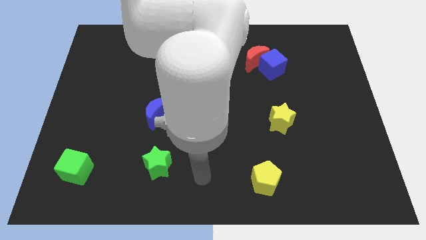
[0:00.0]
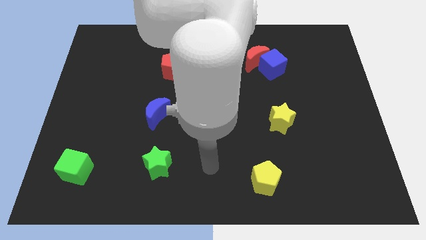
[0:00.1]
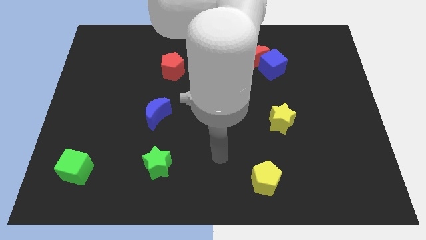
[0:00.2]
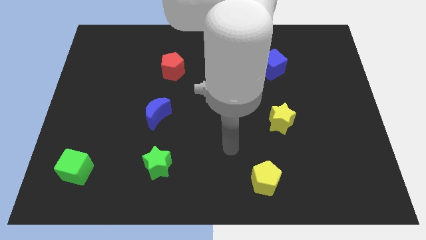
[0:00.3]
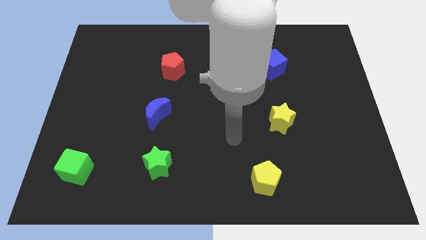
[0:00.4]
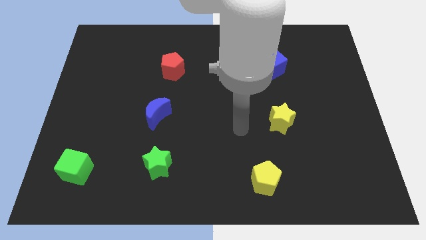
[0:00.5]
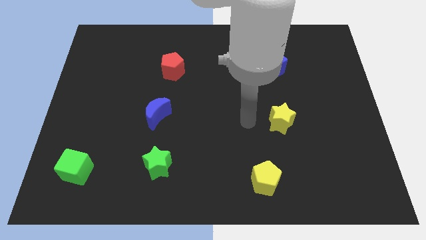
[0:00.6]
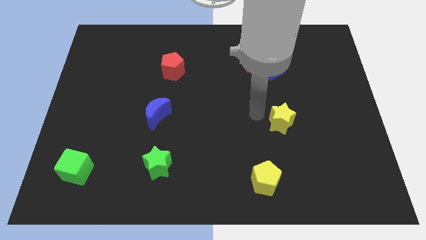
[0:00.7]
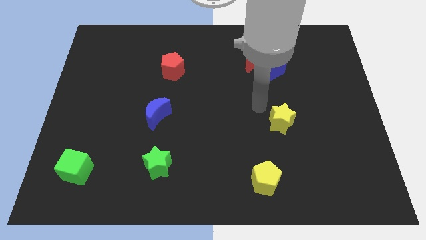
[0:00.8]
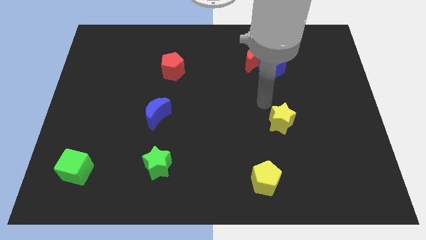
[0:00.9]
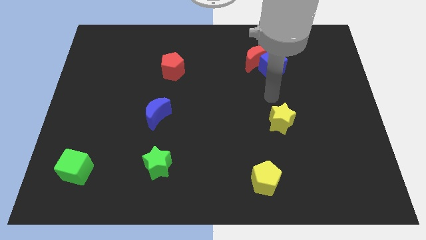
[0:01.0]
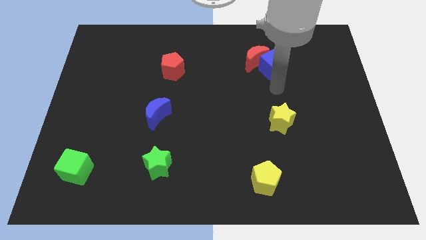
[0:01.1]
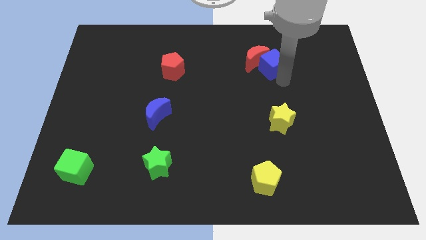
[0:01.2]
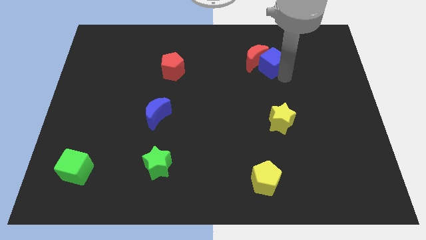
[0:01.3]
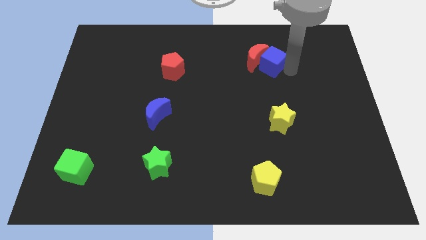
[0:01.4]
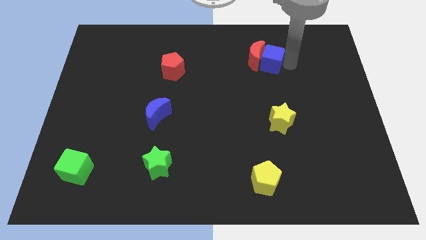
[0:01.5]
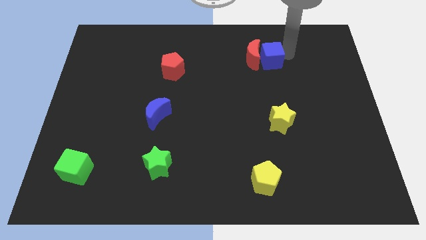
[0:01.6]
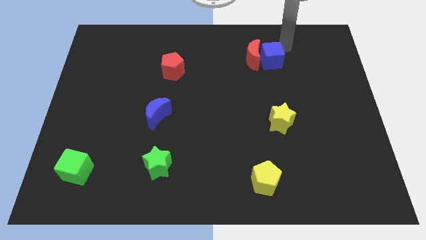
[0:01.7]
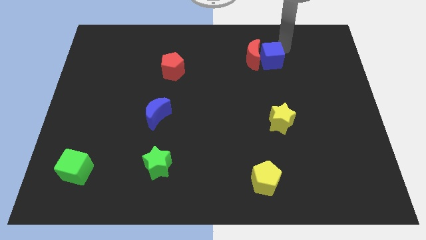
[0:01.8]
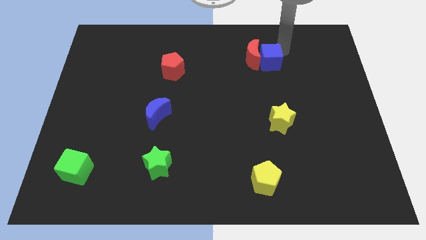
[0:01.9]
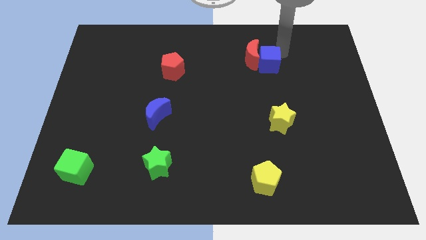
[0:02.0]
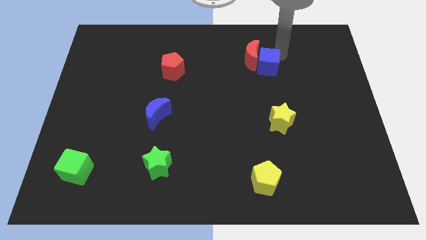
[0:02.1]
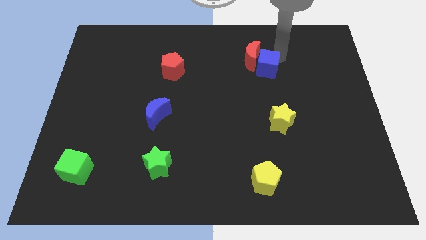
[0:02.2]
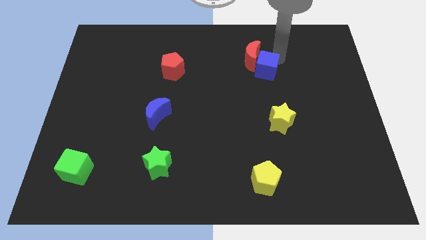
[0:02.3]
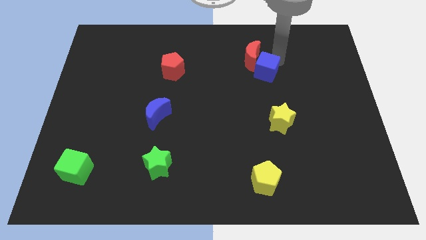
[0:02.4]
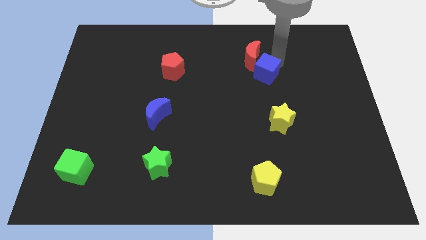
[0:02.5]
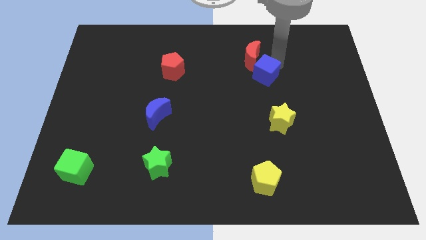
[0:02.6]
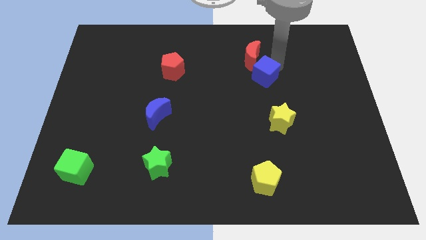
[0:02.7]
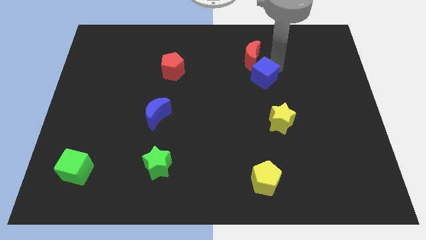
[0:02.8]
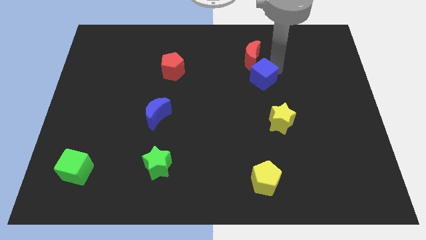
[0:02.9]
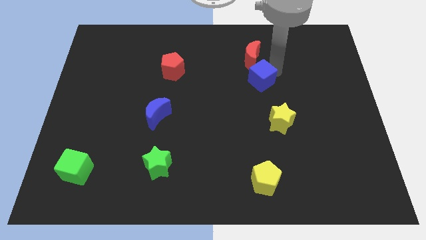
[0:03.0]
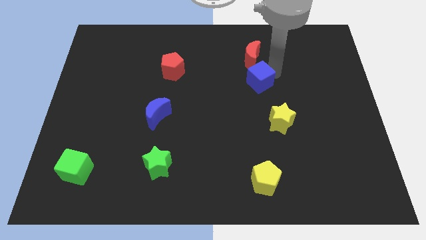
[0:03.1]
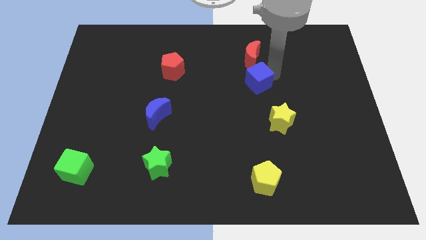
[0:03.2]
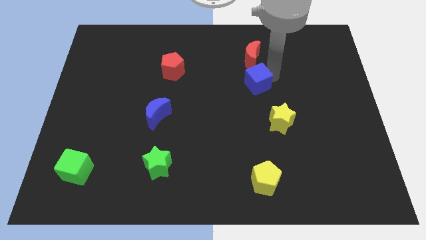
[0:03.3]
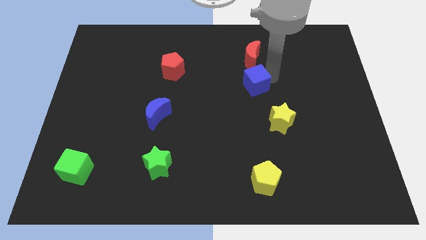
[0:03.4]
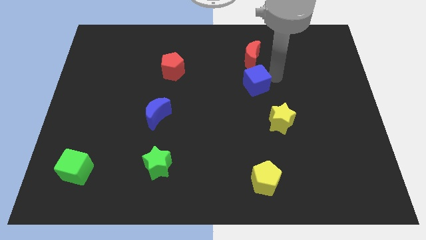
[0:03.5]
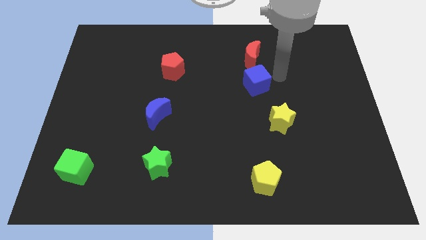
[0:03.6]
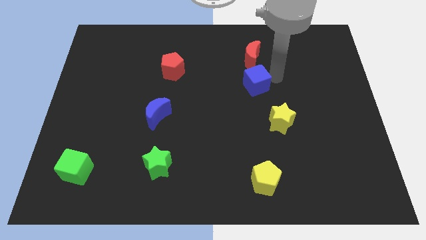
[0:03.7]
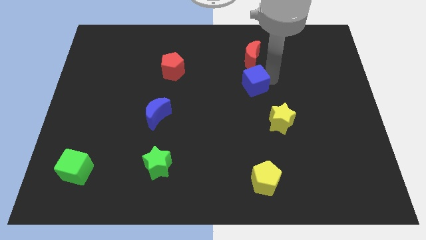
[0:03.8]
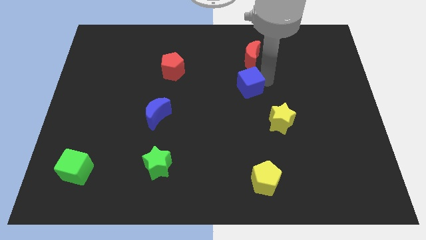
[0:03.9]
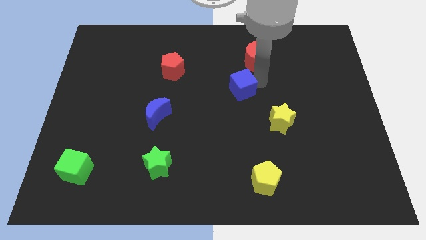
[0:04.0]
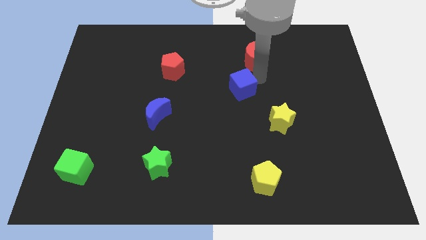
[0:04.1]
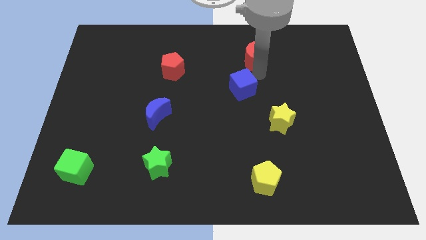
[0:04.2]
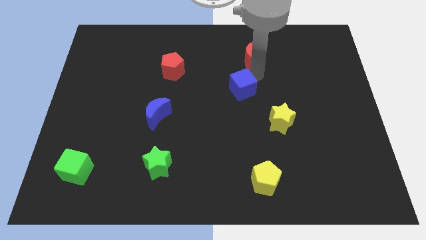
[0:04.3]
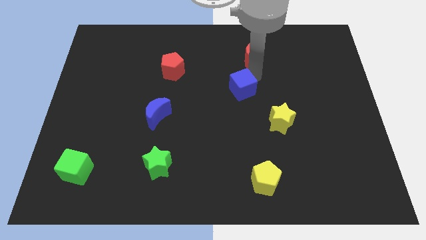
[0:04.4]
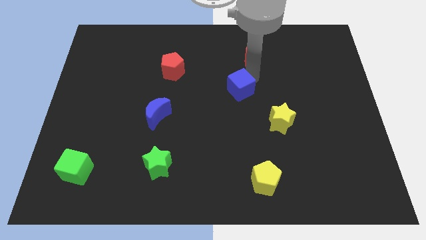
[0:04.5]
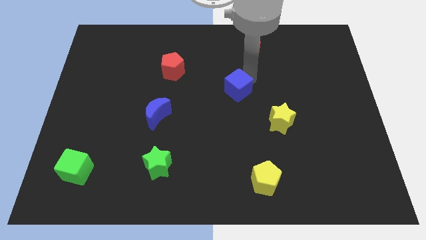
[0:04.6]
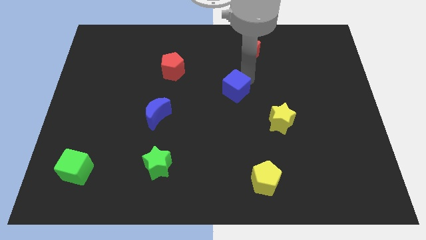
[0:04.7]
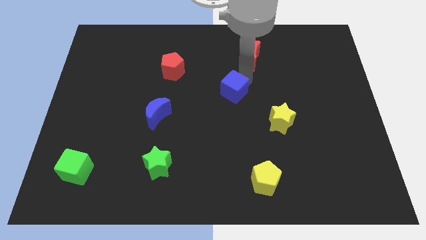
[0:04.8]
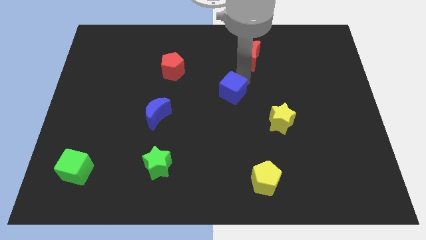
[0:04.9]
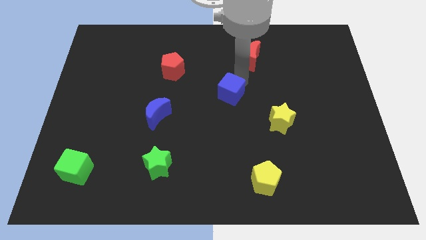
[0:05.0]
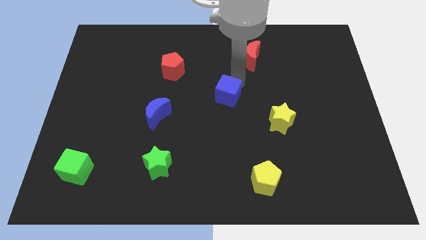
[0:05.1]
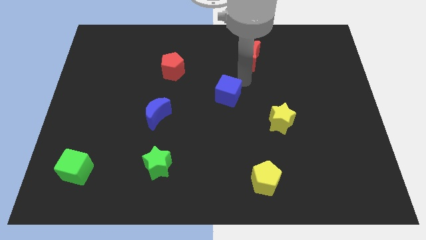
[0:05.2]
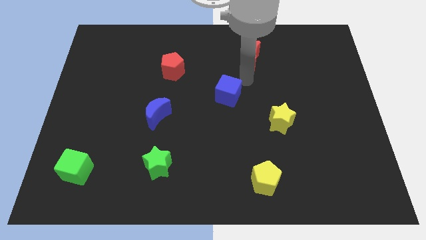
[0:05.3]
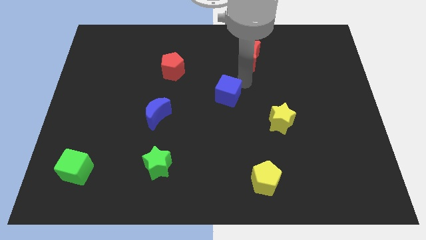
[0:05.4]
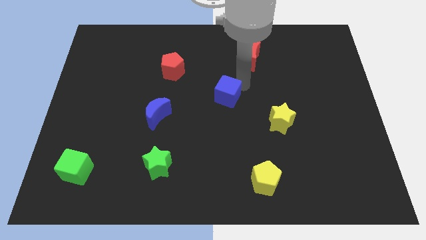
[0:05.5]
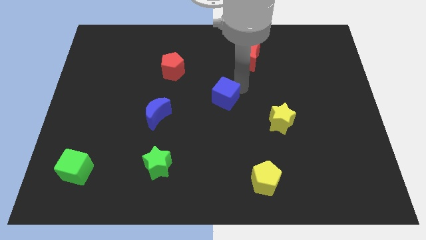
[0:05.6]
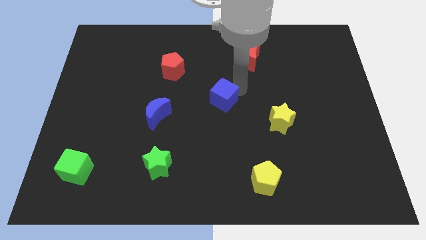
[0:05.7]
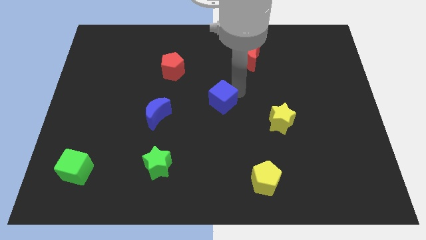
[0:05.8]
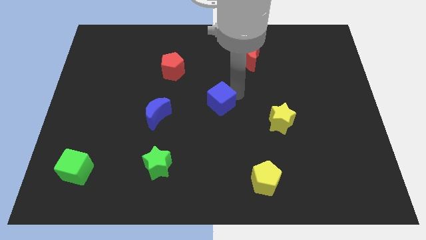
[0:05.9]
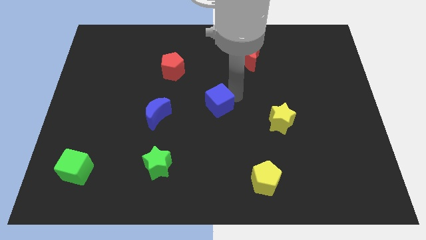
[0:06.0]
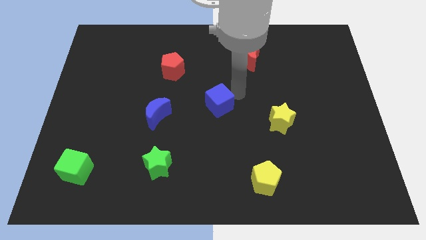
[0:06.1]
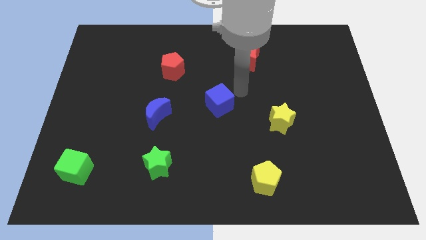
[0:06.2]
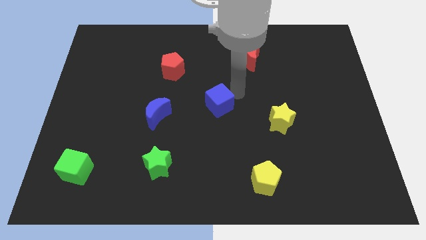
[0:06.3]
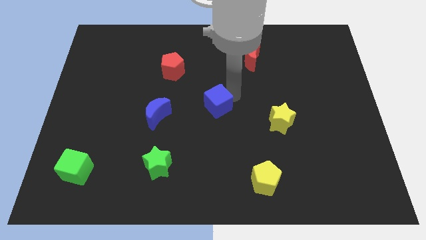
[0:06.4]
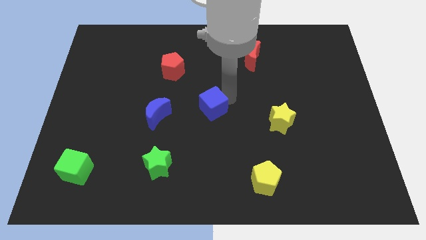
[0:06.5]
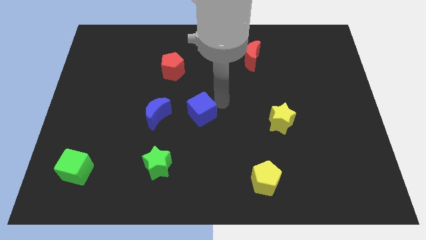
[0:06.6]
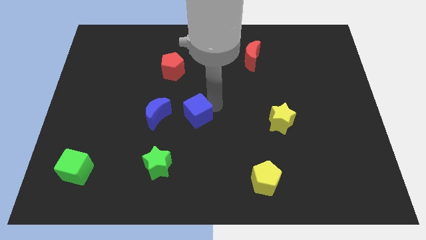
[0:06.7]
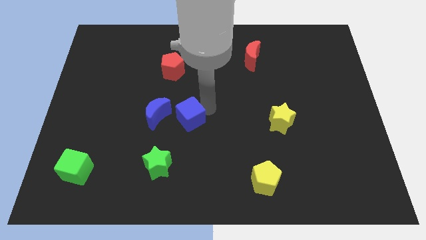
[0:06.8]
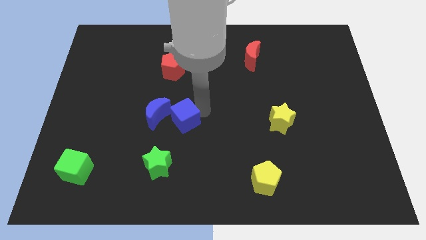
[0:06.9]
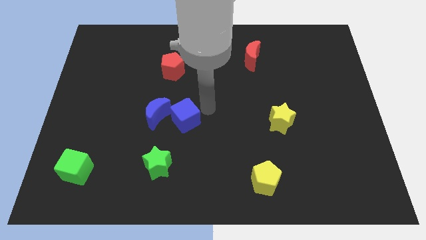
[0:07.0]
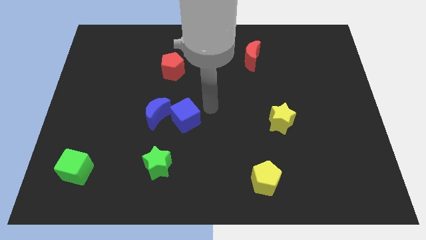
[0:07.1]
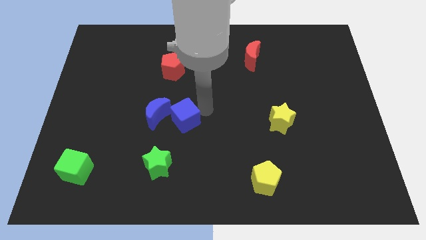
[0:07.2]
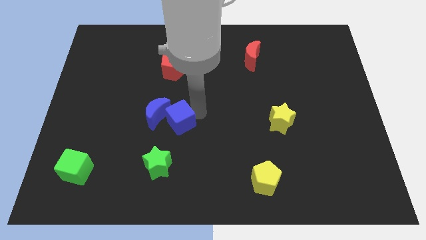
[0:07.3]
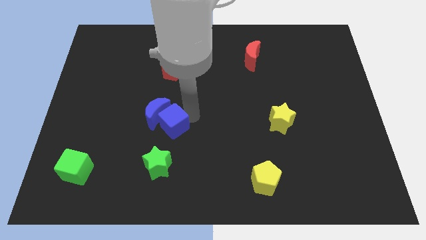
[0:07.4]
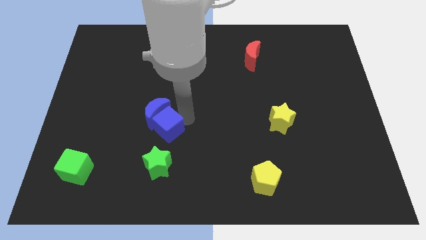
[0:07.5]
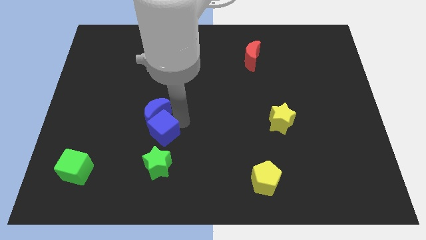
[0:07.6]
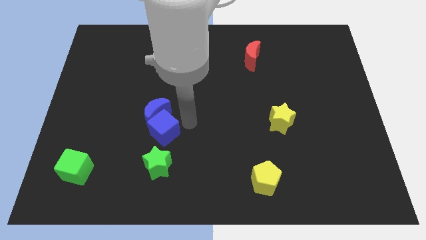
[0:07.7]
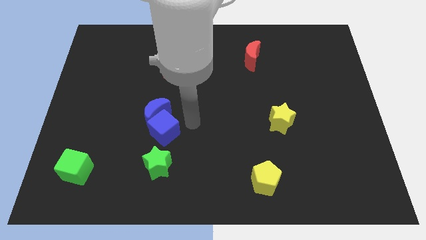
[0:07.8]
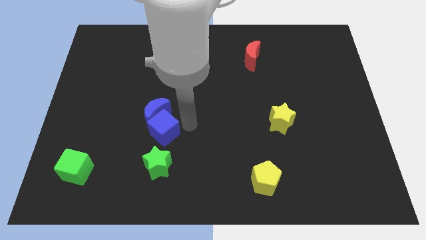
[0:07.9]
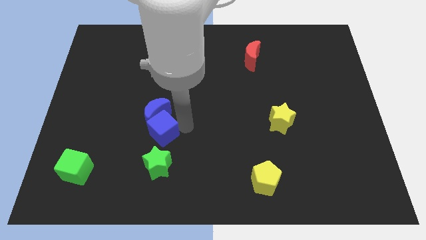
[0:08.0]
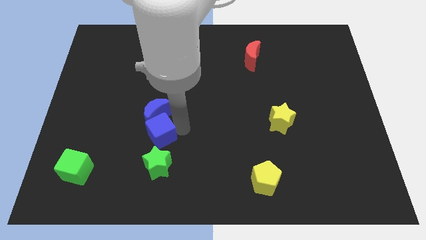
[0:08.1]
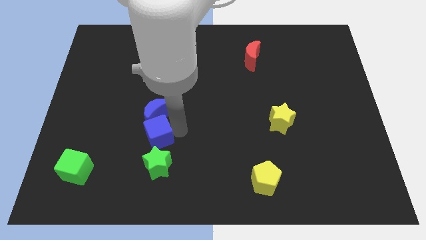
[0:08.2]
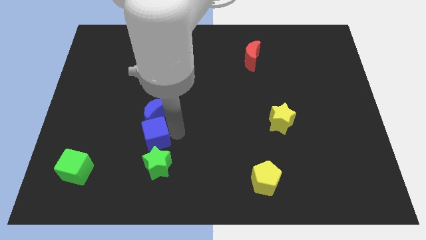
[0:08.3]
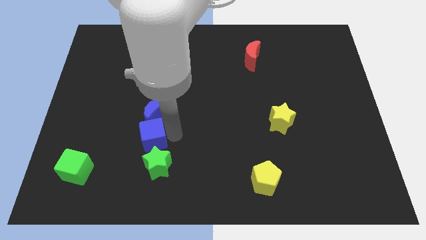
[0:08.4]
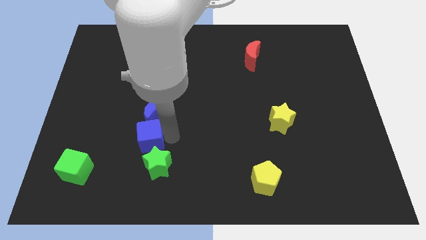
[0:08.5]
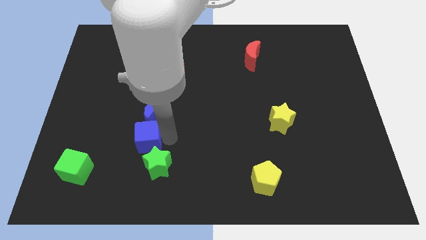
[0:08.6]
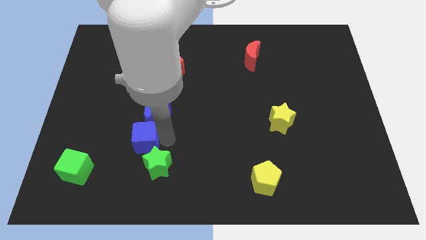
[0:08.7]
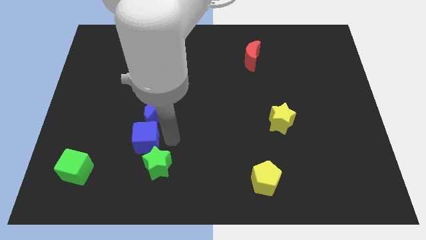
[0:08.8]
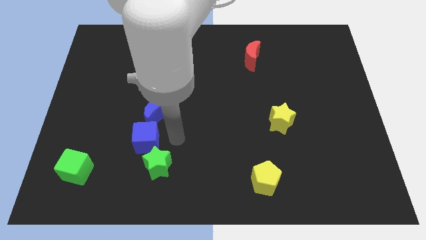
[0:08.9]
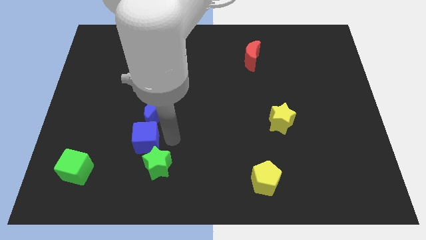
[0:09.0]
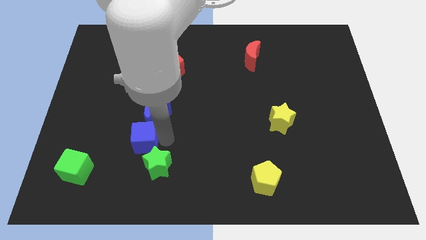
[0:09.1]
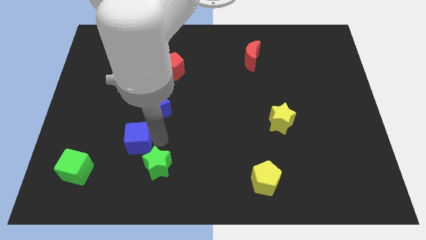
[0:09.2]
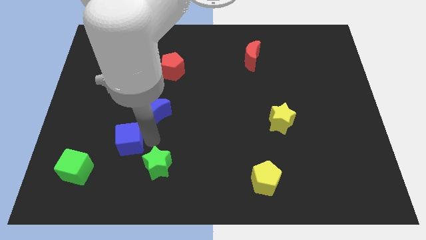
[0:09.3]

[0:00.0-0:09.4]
move the blue cube to the top right of the green cube
